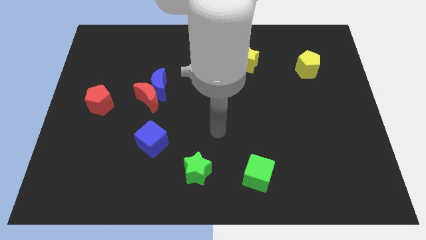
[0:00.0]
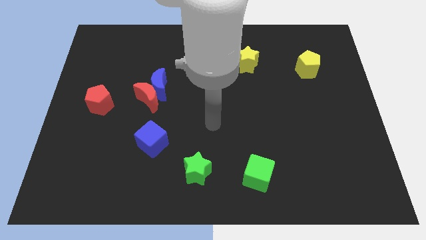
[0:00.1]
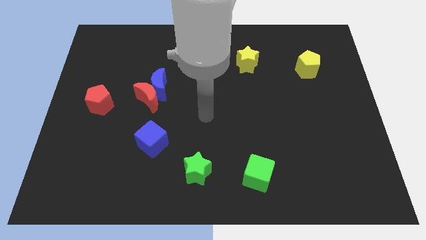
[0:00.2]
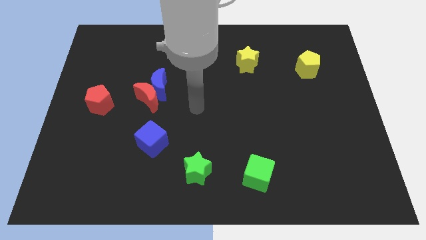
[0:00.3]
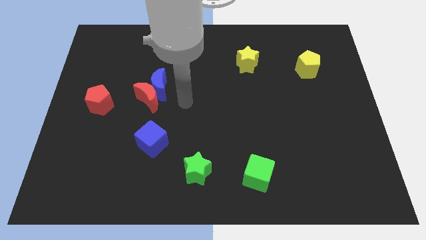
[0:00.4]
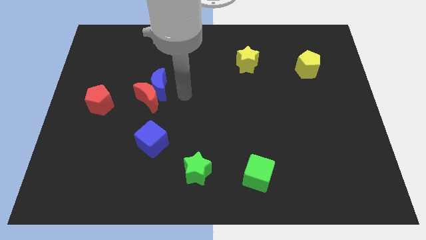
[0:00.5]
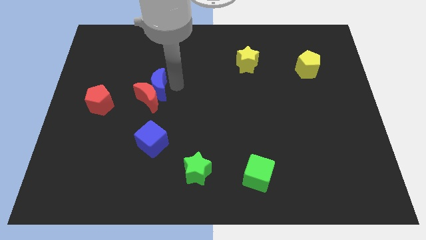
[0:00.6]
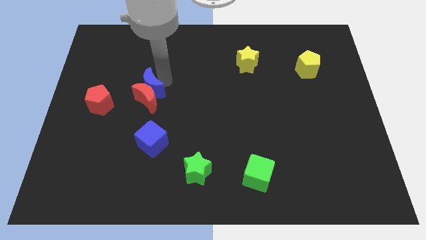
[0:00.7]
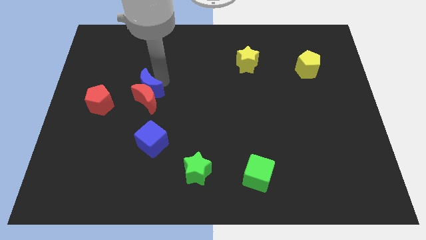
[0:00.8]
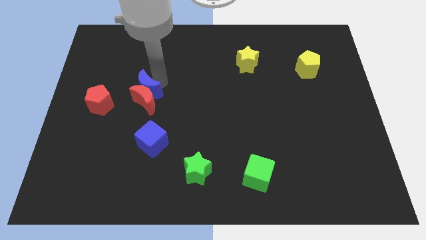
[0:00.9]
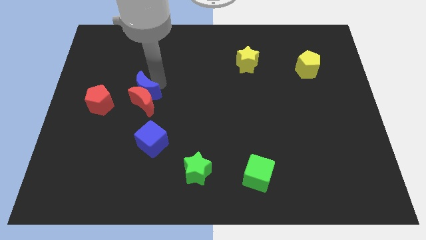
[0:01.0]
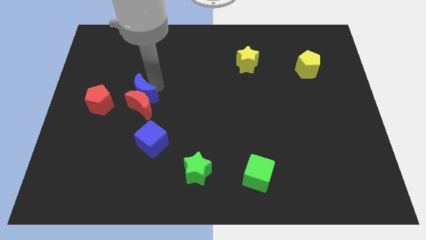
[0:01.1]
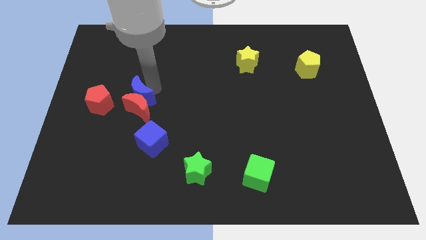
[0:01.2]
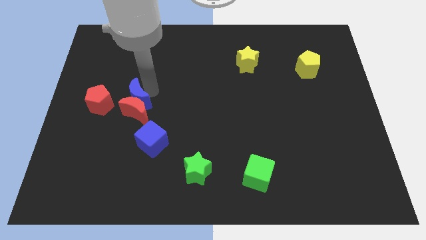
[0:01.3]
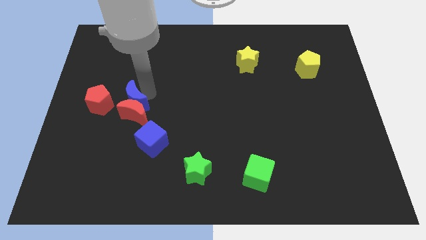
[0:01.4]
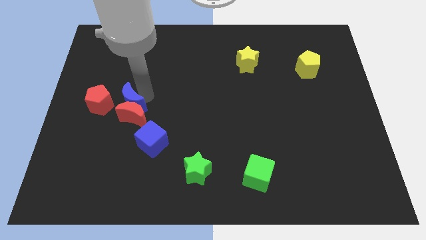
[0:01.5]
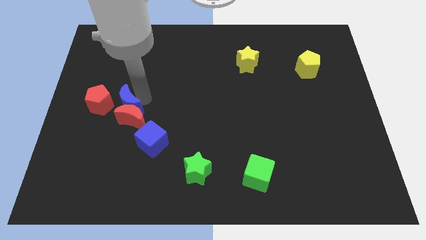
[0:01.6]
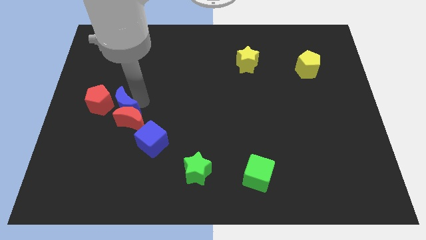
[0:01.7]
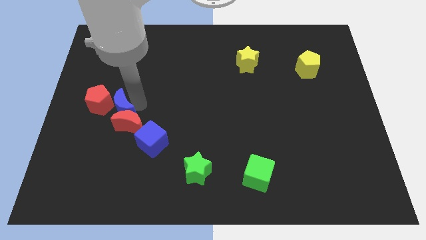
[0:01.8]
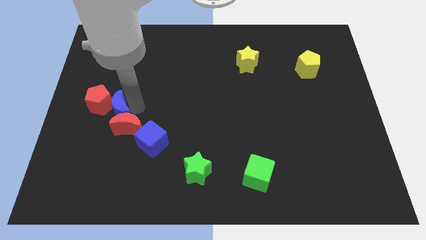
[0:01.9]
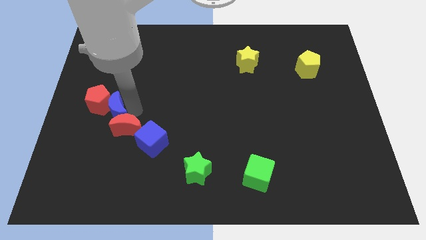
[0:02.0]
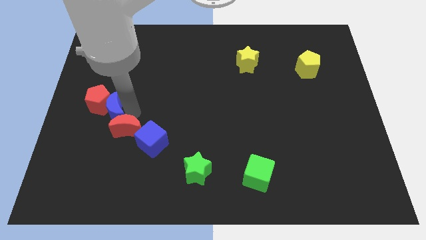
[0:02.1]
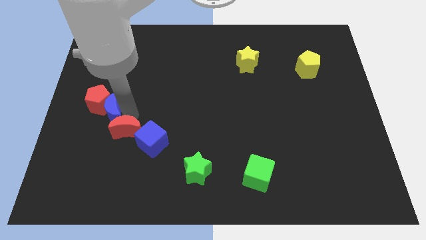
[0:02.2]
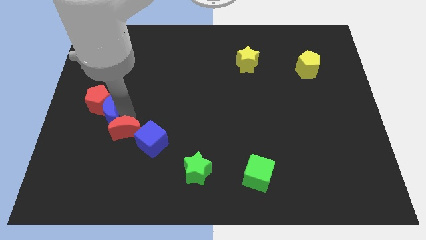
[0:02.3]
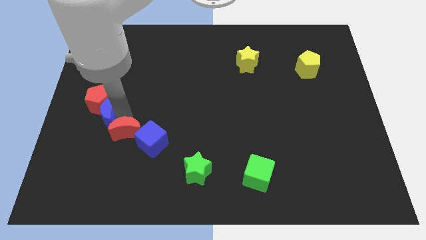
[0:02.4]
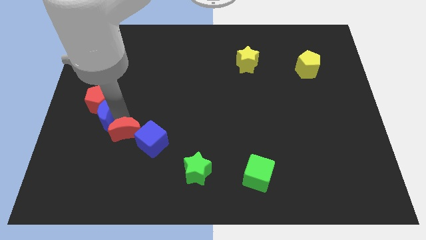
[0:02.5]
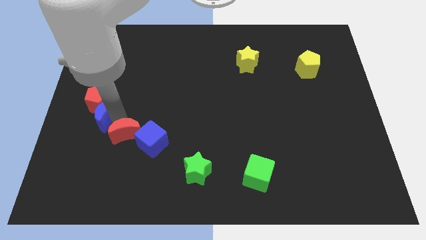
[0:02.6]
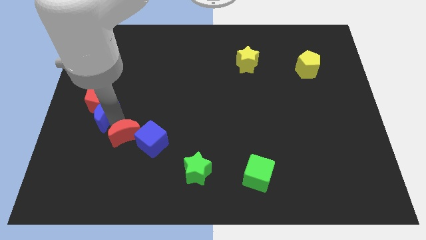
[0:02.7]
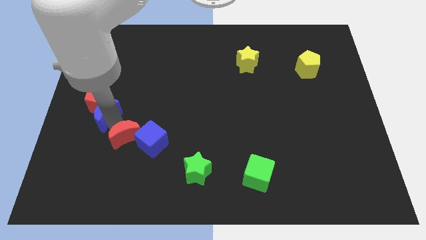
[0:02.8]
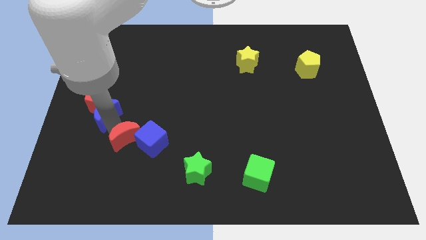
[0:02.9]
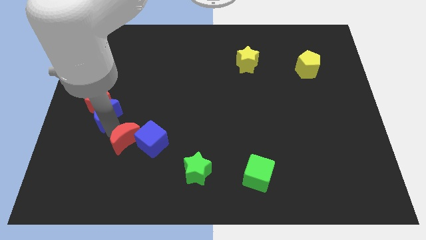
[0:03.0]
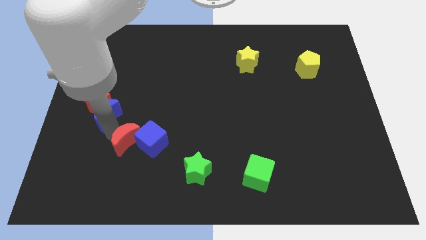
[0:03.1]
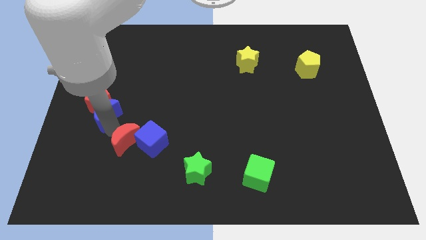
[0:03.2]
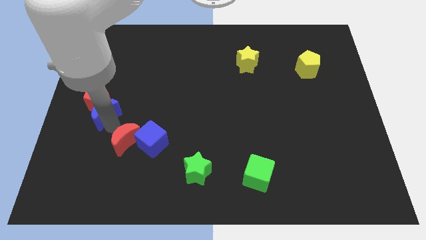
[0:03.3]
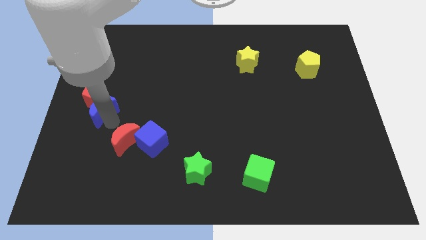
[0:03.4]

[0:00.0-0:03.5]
separate the red moon from the blue moon

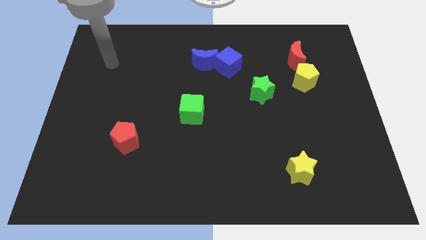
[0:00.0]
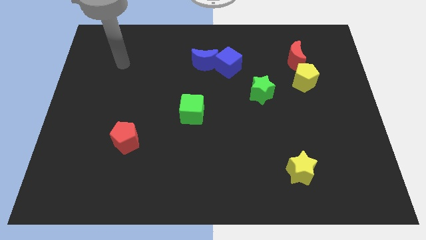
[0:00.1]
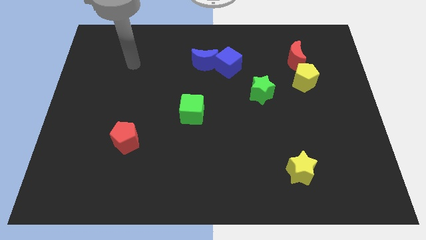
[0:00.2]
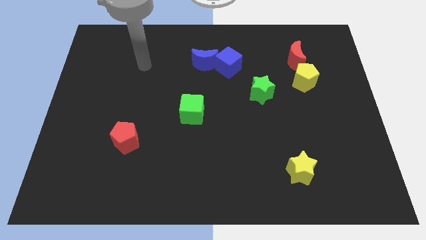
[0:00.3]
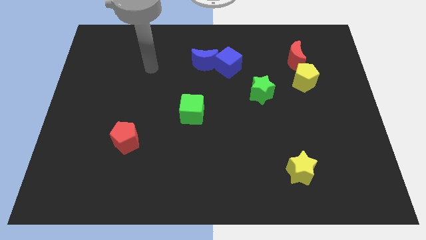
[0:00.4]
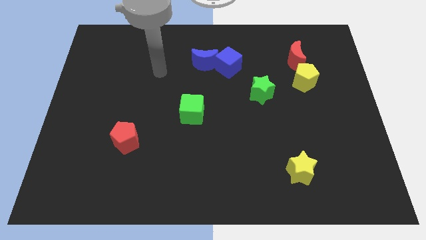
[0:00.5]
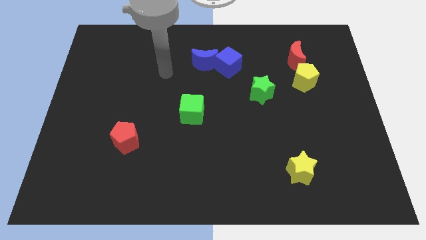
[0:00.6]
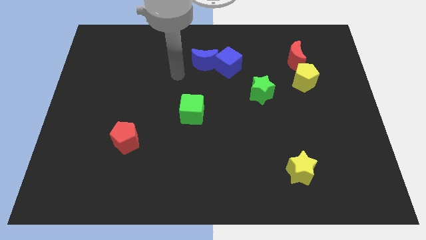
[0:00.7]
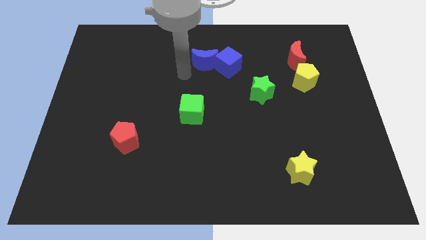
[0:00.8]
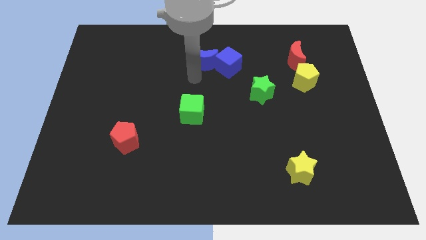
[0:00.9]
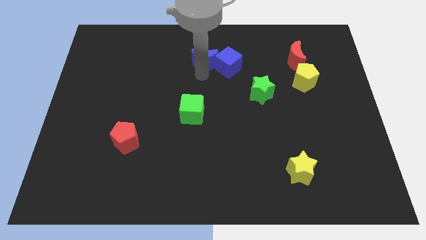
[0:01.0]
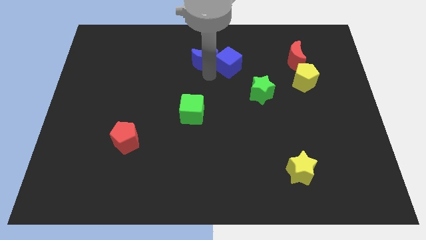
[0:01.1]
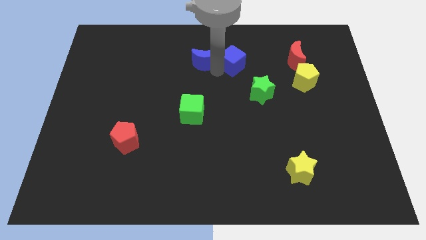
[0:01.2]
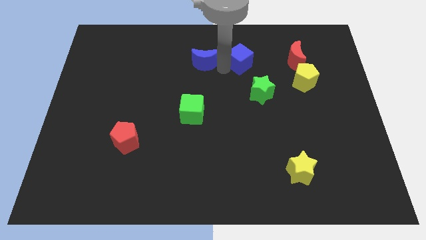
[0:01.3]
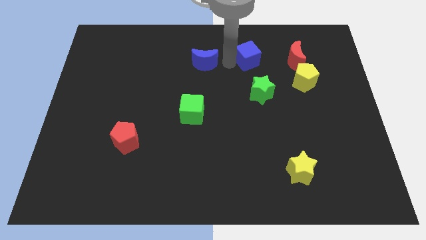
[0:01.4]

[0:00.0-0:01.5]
move the blue moon away from the blue cube

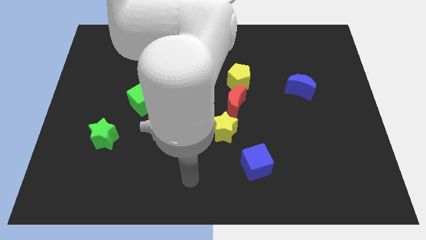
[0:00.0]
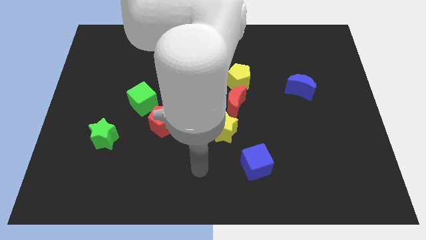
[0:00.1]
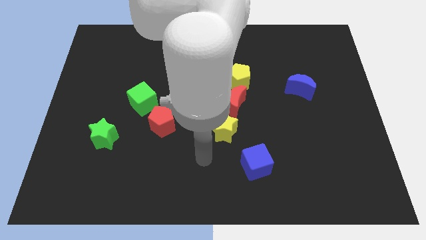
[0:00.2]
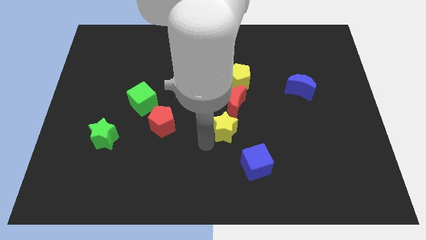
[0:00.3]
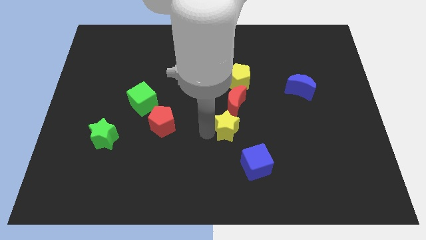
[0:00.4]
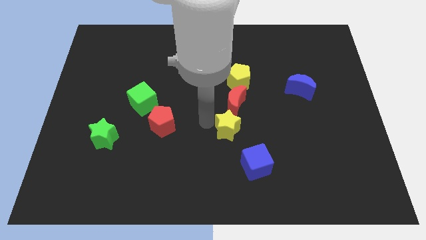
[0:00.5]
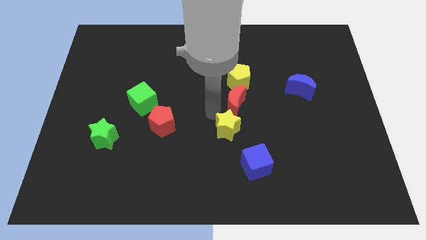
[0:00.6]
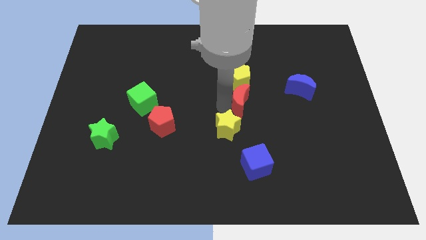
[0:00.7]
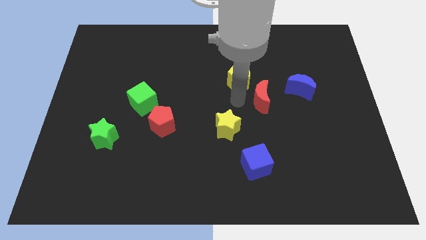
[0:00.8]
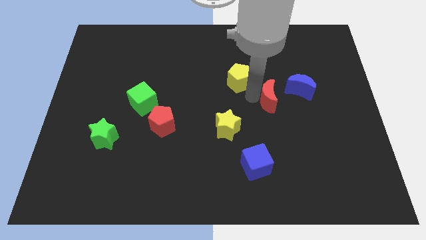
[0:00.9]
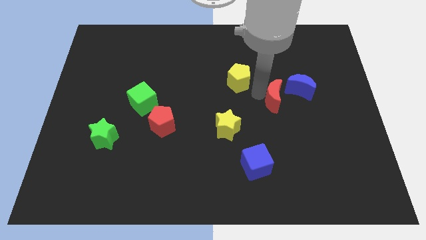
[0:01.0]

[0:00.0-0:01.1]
pull the yellow pentagon apart from the red moon

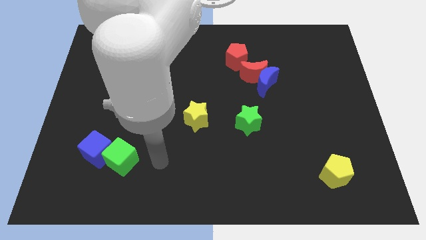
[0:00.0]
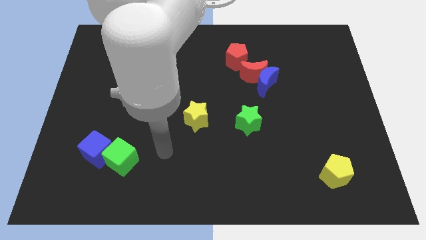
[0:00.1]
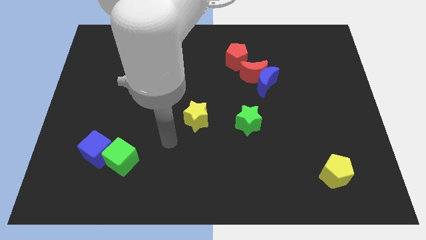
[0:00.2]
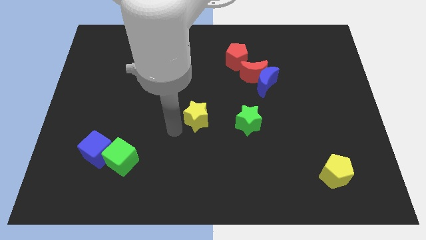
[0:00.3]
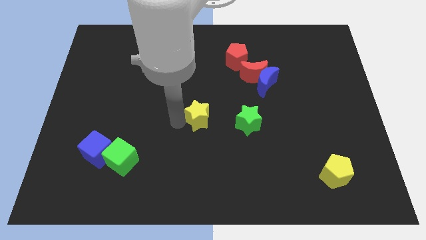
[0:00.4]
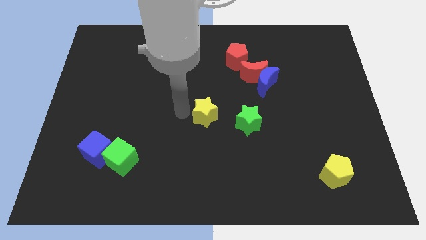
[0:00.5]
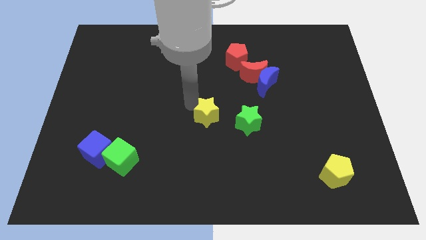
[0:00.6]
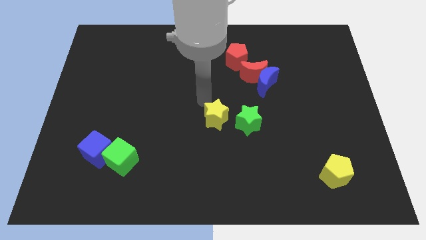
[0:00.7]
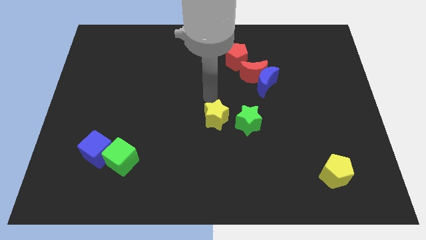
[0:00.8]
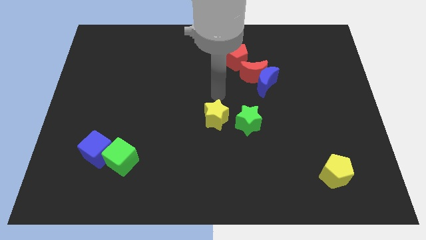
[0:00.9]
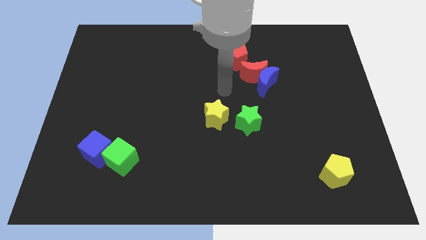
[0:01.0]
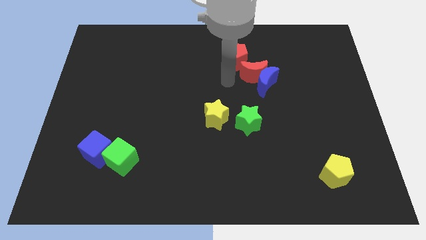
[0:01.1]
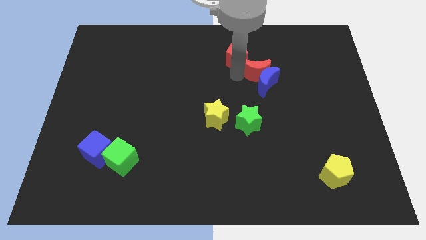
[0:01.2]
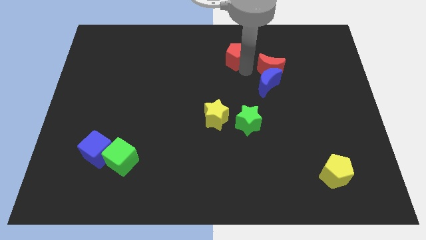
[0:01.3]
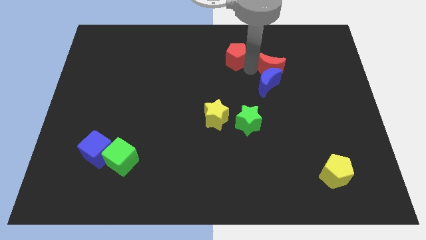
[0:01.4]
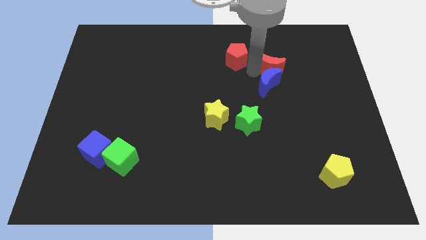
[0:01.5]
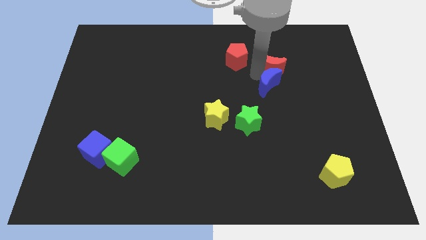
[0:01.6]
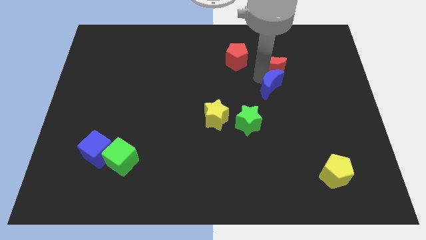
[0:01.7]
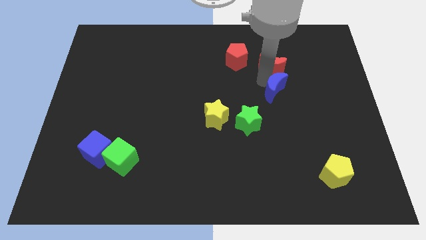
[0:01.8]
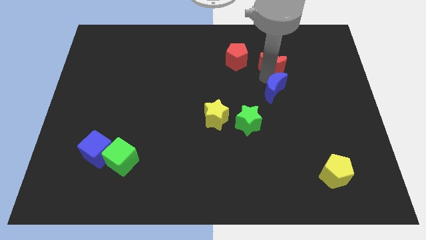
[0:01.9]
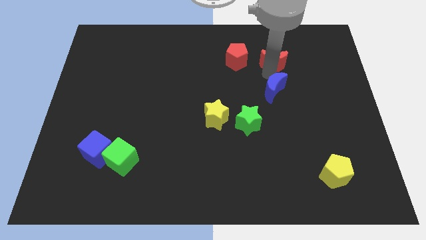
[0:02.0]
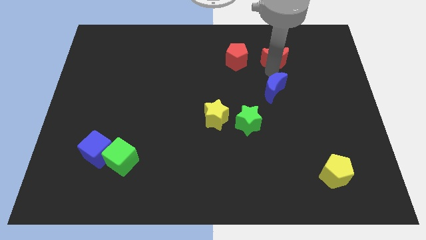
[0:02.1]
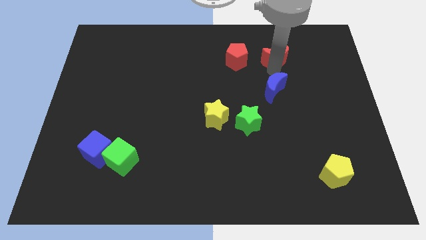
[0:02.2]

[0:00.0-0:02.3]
separate the blue moon from the red moon

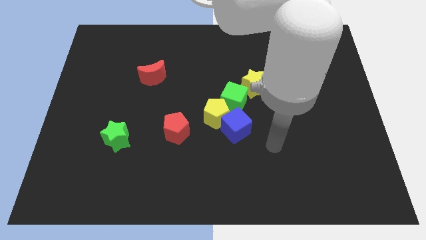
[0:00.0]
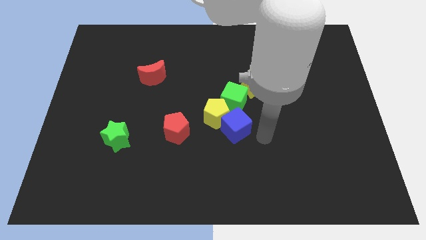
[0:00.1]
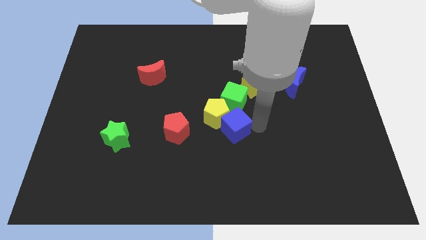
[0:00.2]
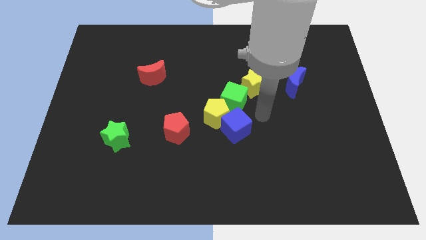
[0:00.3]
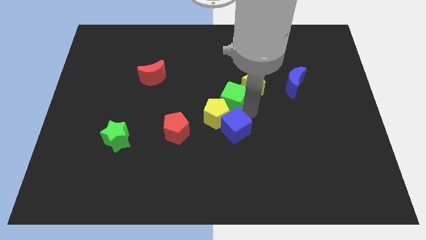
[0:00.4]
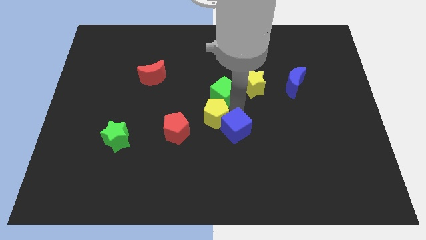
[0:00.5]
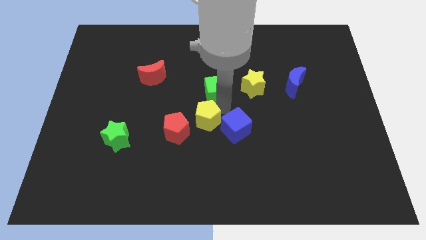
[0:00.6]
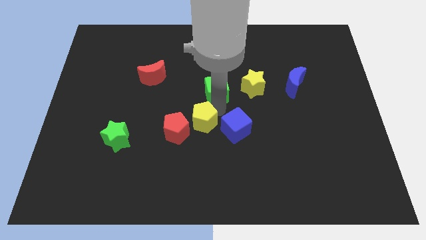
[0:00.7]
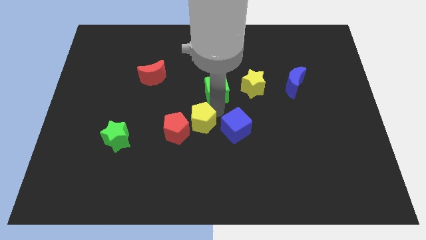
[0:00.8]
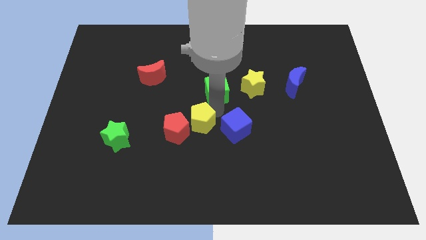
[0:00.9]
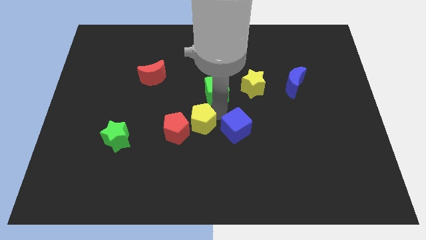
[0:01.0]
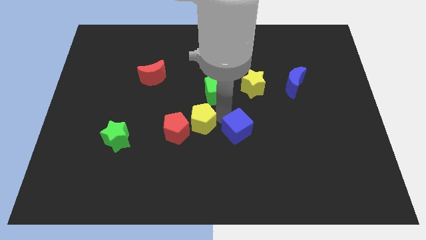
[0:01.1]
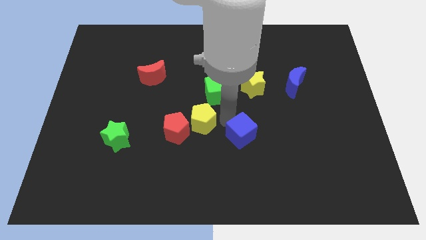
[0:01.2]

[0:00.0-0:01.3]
separate the blue cube from the yellow pentagon and green cube
